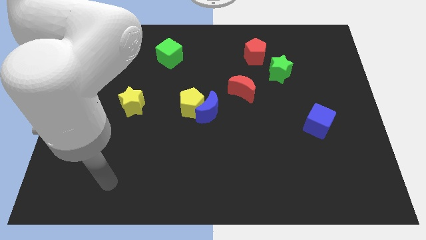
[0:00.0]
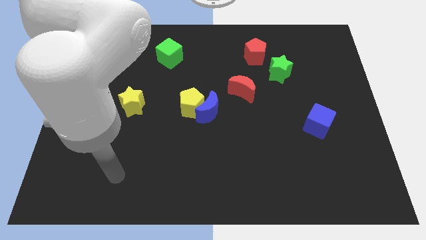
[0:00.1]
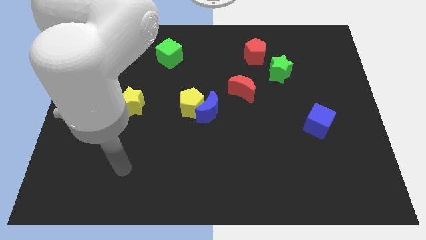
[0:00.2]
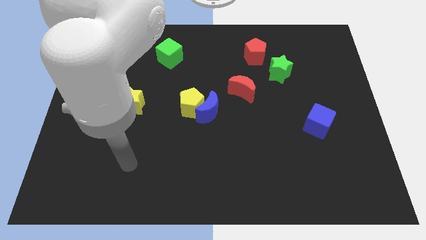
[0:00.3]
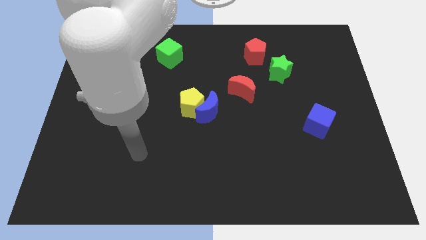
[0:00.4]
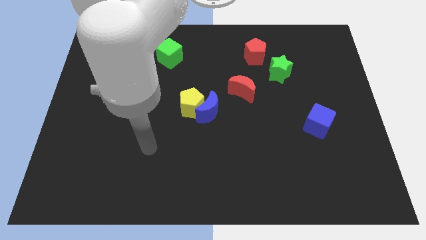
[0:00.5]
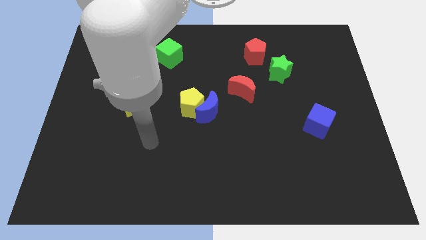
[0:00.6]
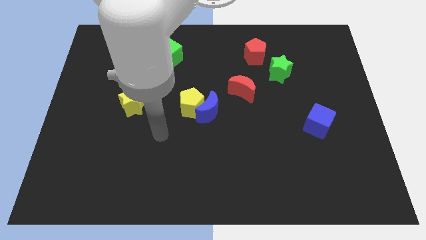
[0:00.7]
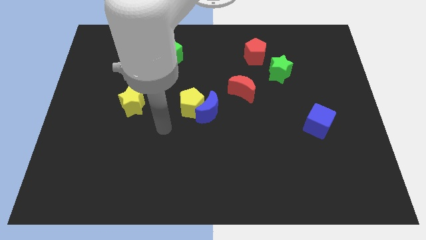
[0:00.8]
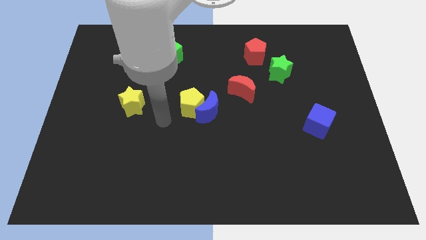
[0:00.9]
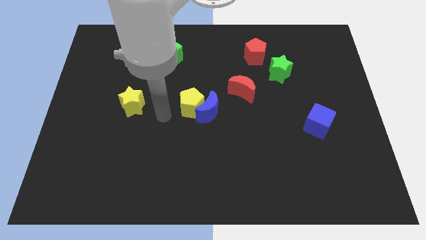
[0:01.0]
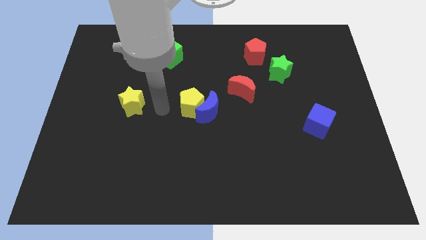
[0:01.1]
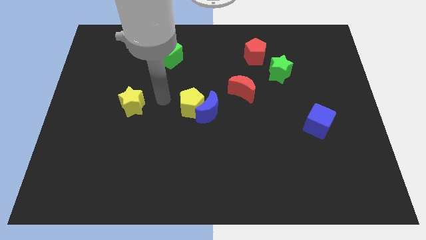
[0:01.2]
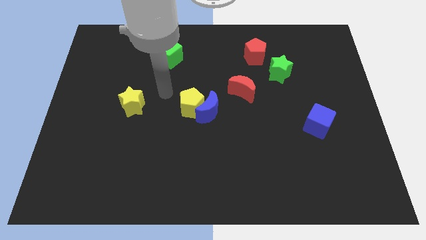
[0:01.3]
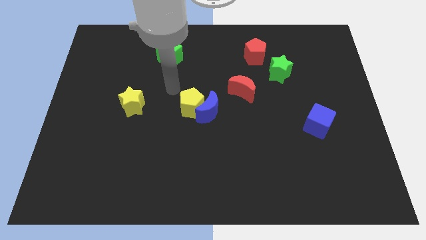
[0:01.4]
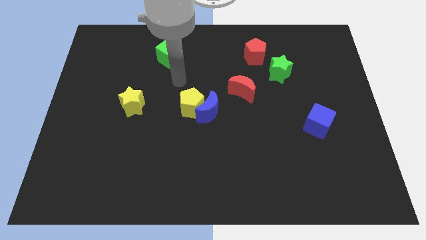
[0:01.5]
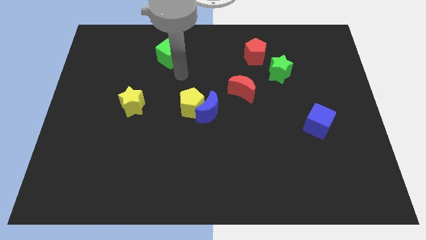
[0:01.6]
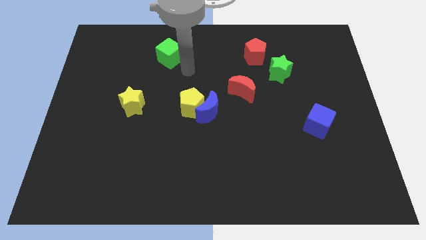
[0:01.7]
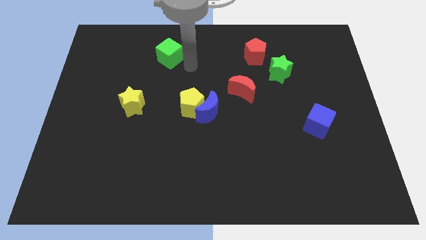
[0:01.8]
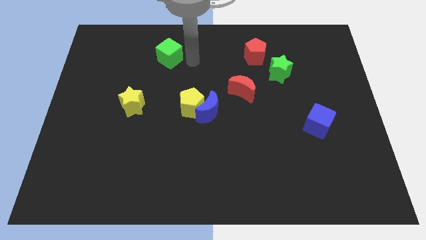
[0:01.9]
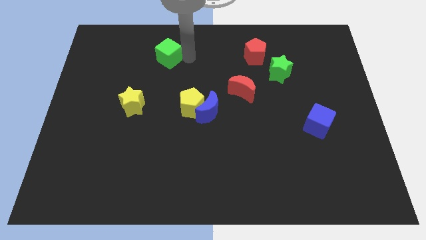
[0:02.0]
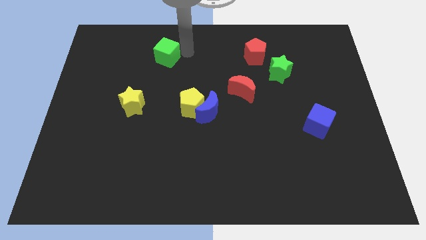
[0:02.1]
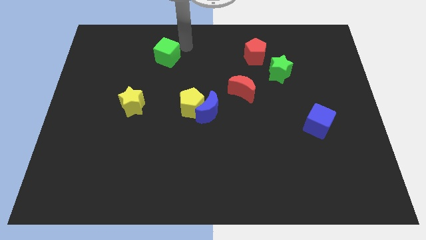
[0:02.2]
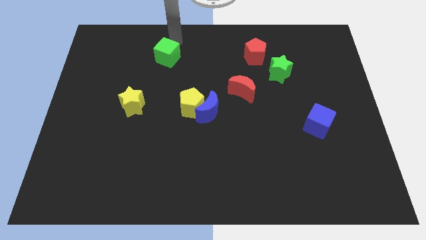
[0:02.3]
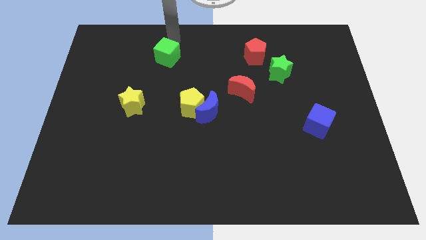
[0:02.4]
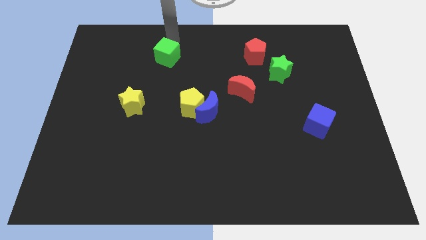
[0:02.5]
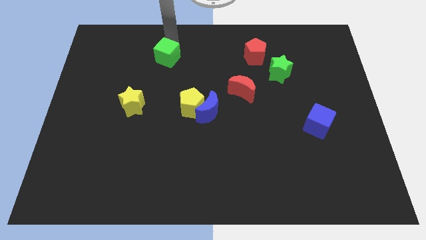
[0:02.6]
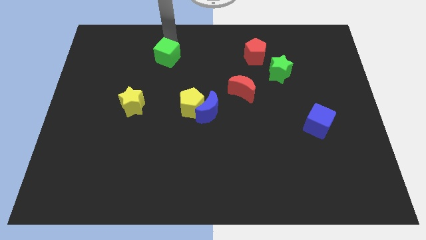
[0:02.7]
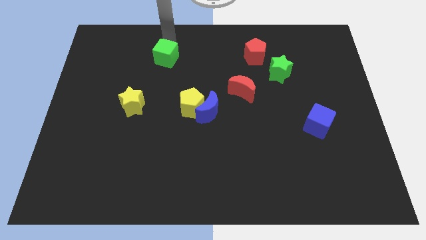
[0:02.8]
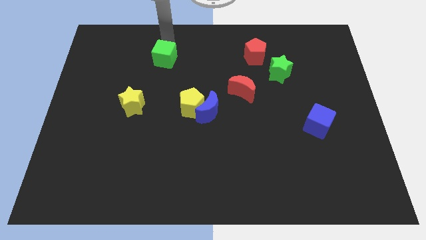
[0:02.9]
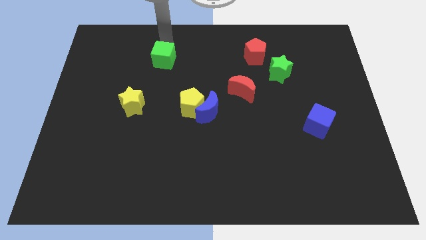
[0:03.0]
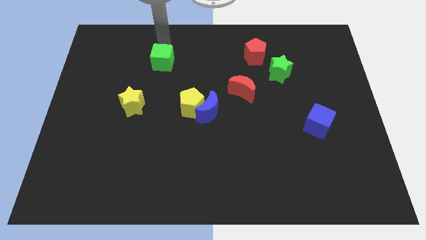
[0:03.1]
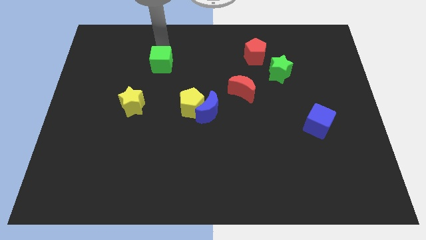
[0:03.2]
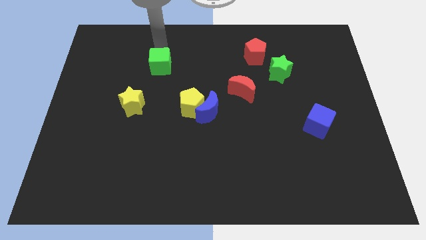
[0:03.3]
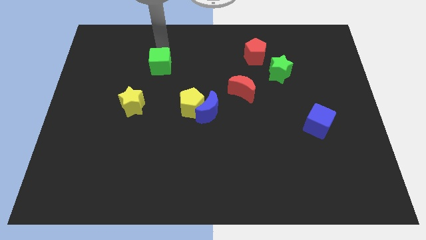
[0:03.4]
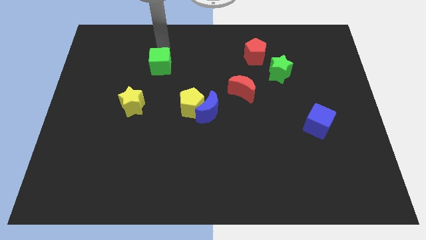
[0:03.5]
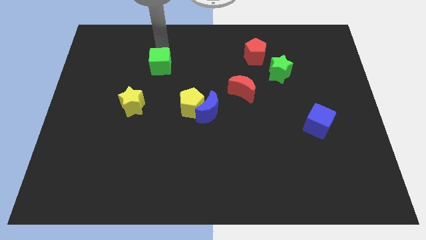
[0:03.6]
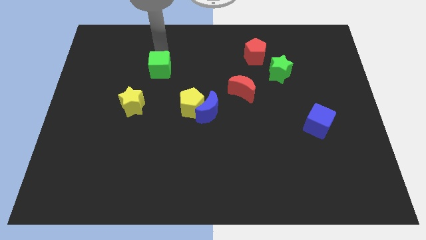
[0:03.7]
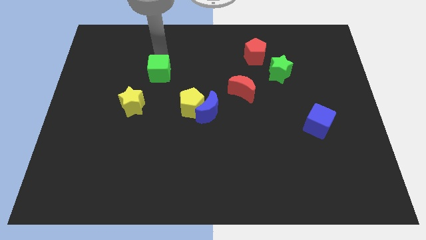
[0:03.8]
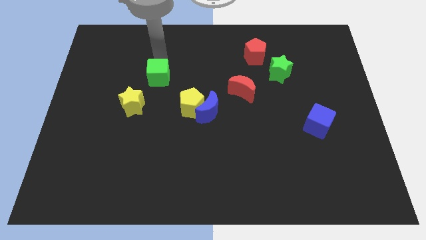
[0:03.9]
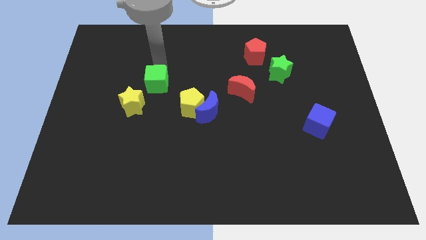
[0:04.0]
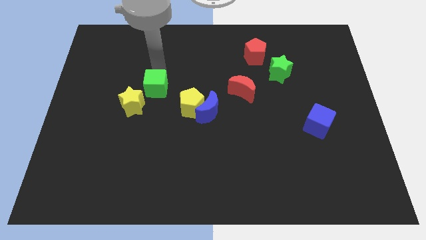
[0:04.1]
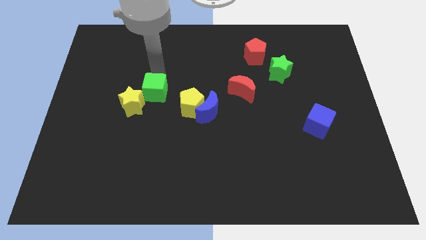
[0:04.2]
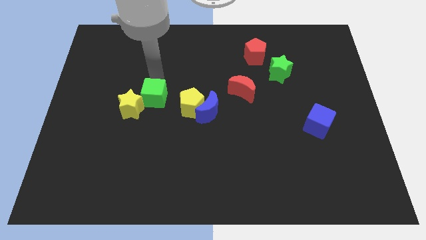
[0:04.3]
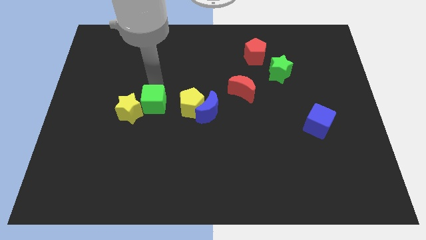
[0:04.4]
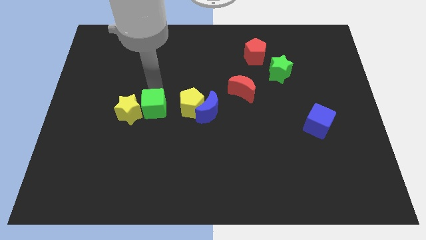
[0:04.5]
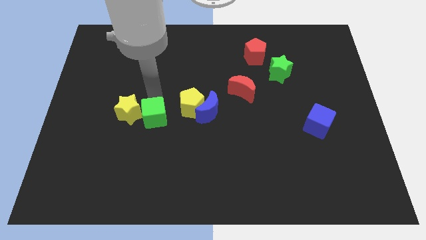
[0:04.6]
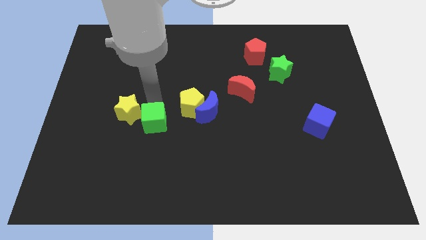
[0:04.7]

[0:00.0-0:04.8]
slide the green cube downwards

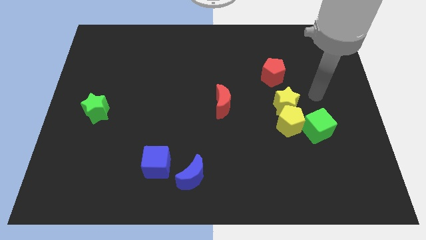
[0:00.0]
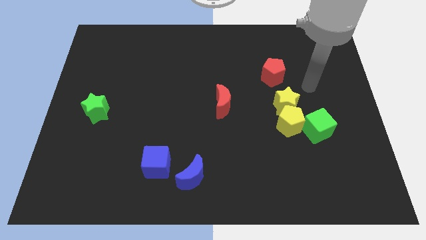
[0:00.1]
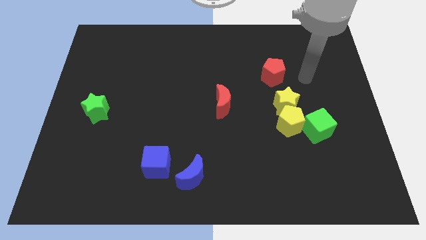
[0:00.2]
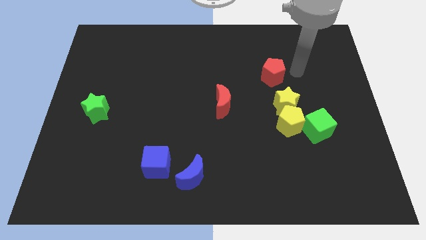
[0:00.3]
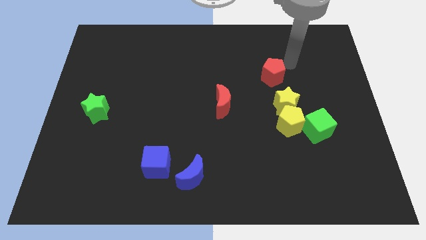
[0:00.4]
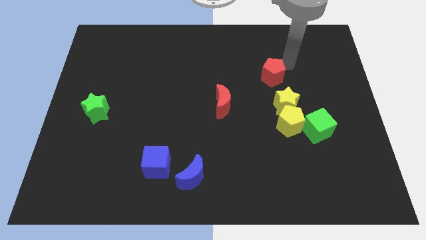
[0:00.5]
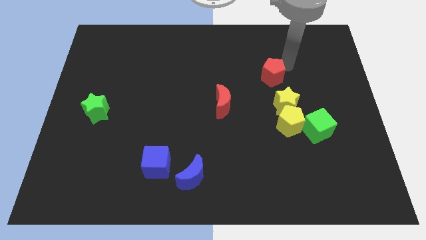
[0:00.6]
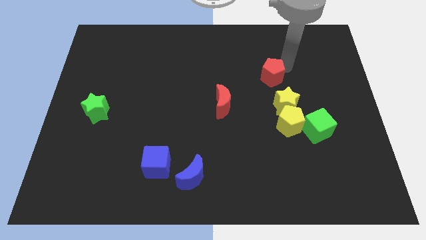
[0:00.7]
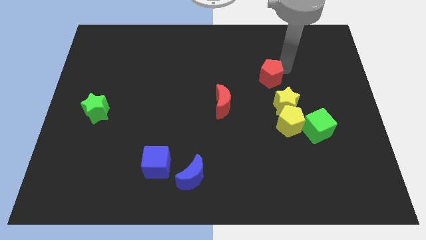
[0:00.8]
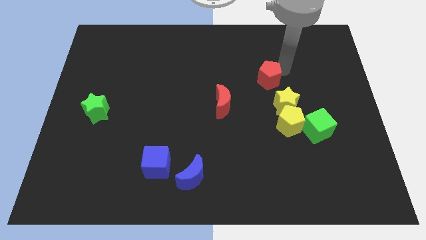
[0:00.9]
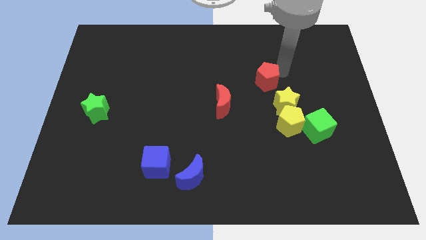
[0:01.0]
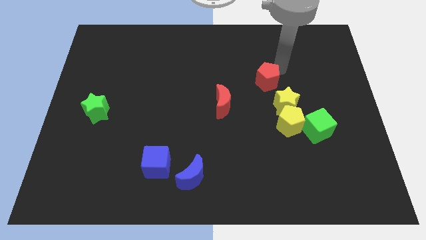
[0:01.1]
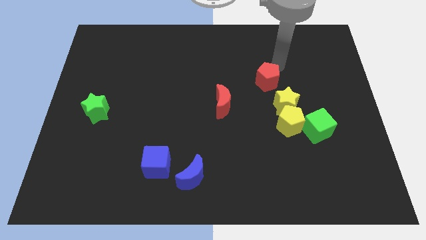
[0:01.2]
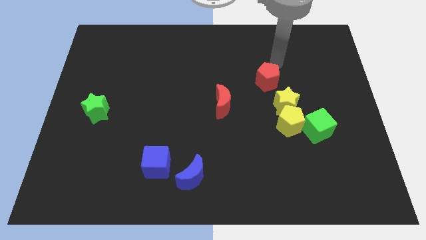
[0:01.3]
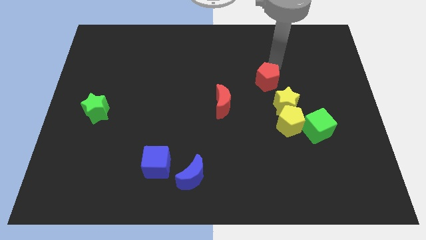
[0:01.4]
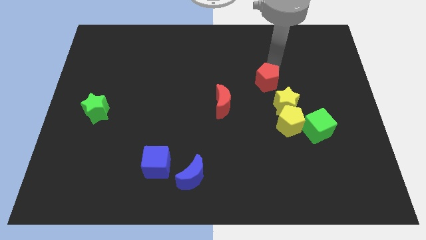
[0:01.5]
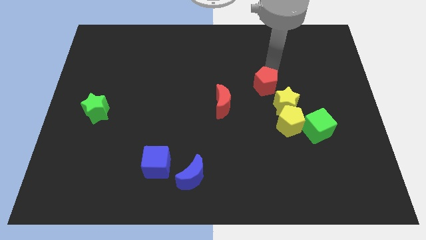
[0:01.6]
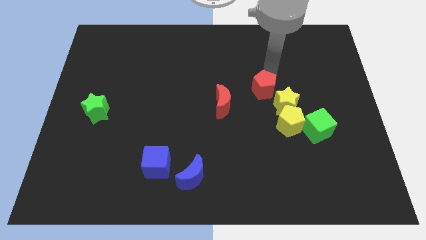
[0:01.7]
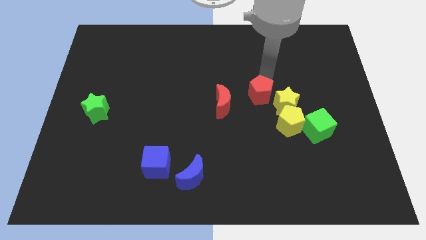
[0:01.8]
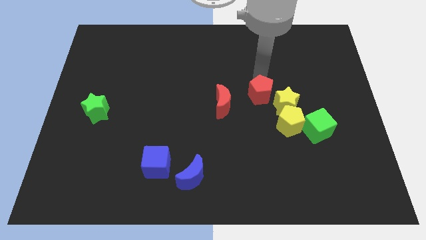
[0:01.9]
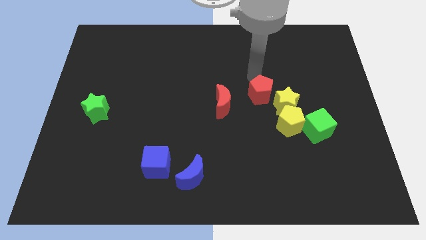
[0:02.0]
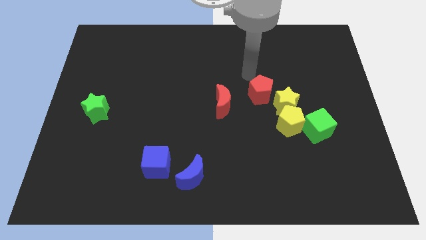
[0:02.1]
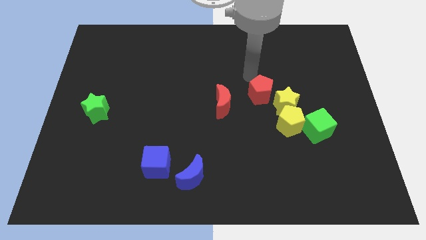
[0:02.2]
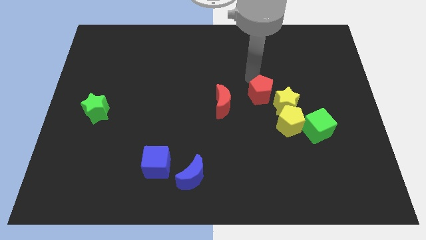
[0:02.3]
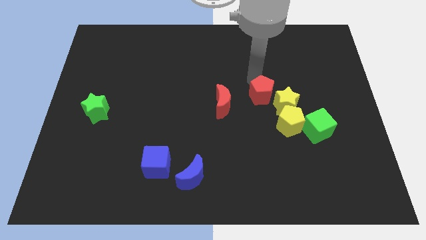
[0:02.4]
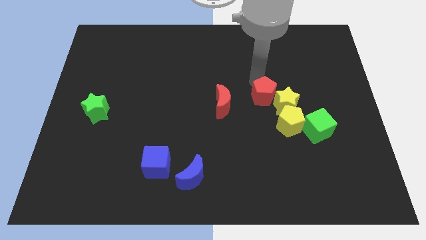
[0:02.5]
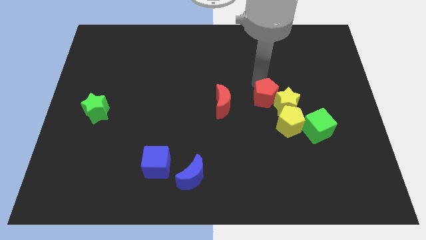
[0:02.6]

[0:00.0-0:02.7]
push the red pentagon slightly down

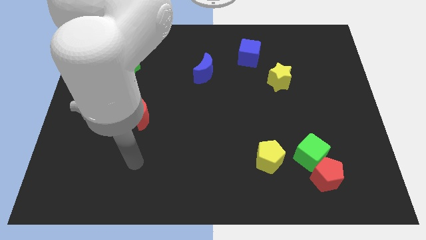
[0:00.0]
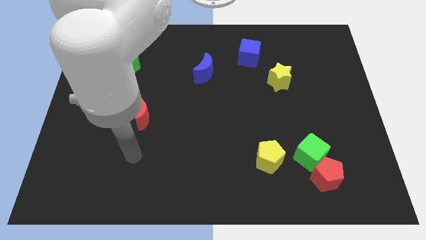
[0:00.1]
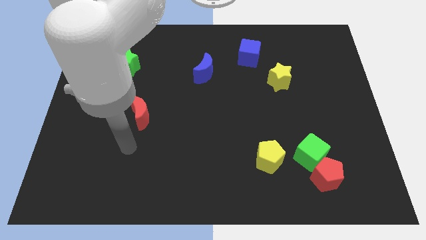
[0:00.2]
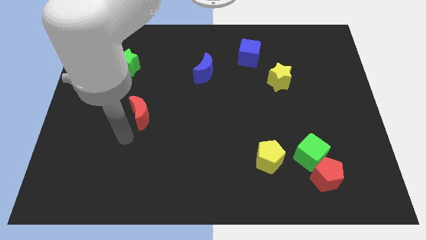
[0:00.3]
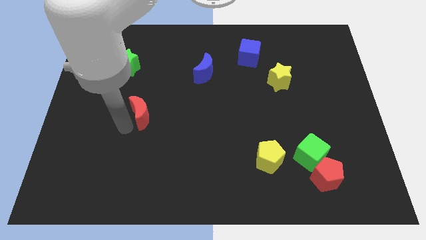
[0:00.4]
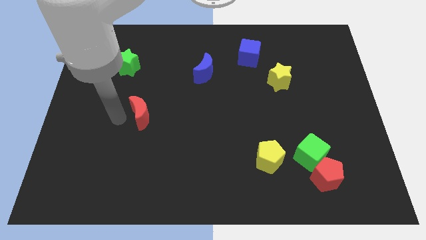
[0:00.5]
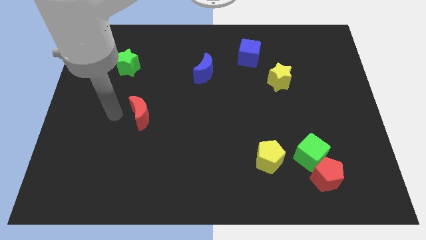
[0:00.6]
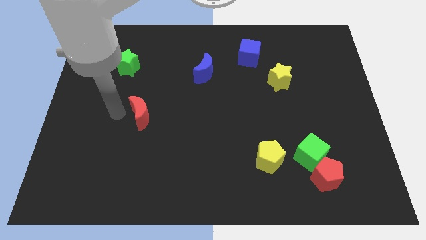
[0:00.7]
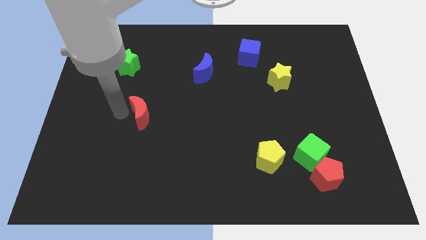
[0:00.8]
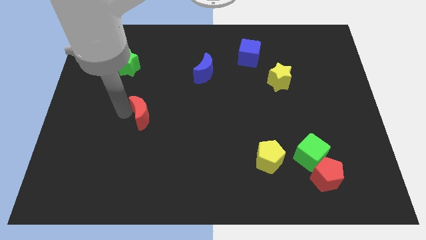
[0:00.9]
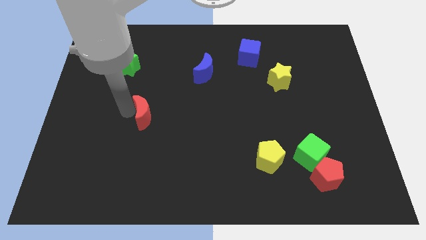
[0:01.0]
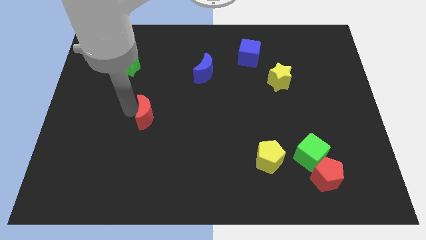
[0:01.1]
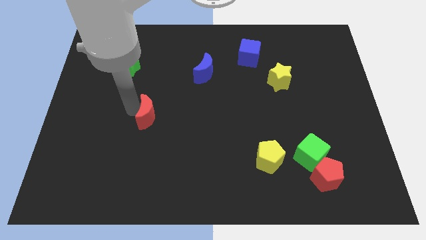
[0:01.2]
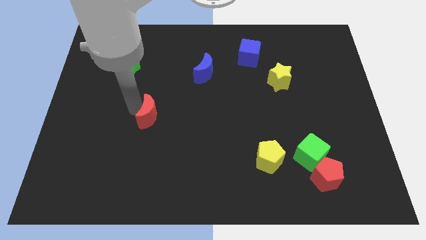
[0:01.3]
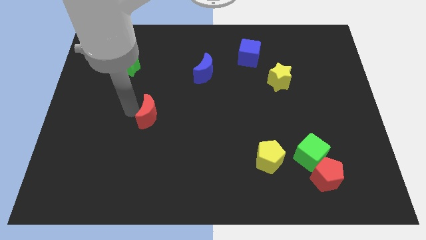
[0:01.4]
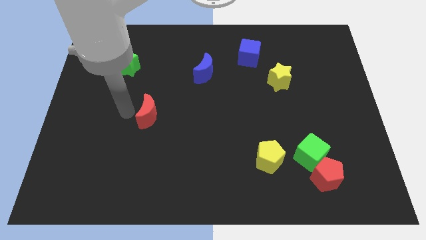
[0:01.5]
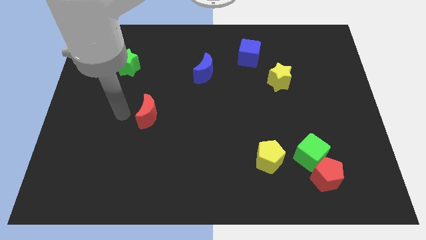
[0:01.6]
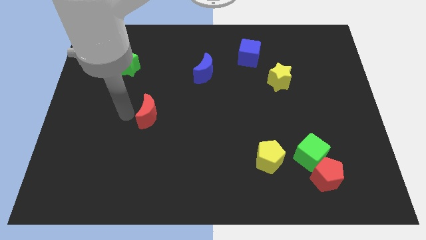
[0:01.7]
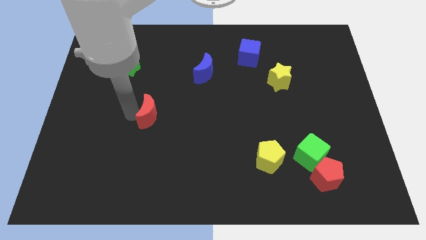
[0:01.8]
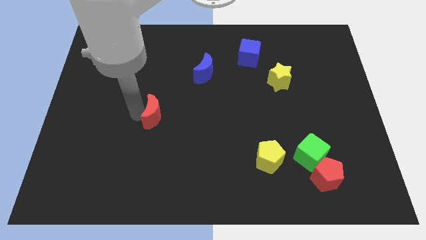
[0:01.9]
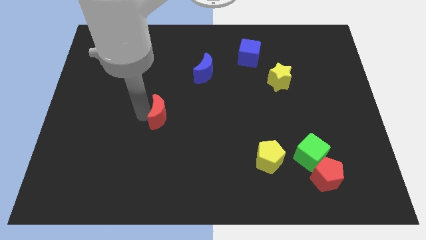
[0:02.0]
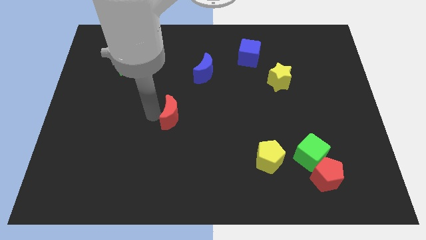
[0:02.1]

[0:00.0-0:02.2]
slightly slide the red moon right
